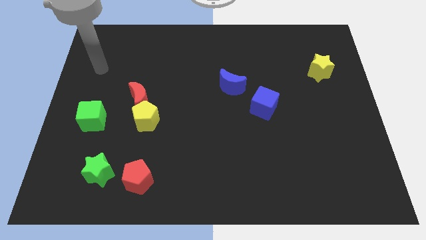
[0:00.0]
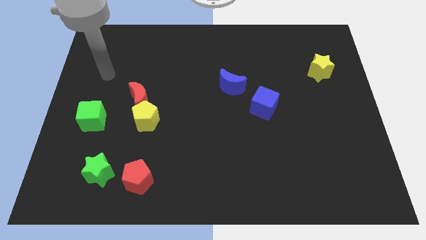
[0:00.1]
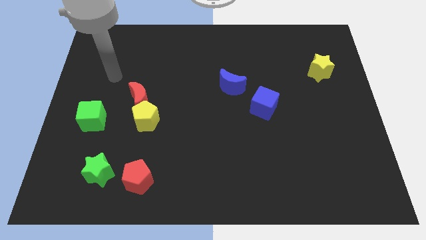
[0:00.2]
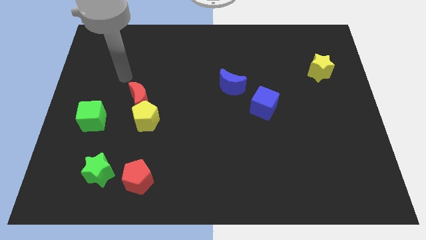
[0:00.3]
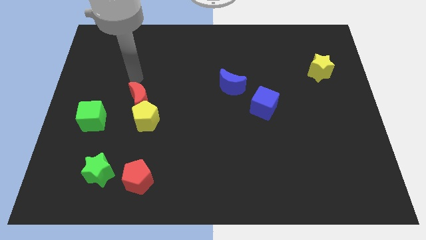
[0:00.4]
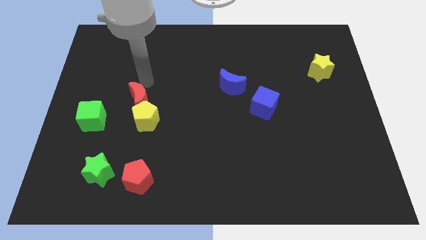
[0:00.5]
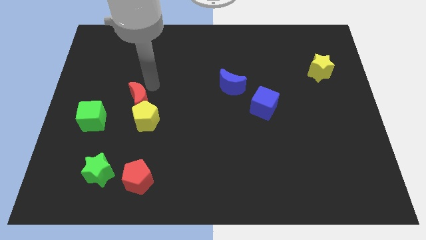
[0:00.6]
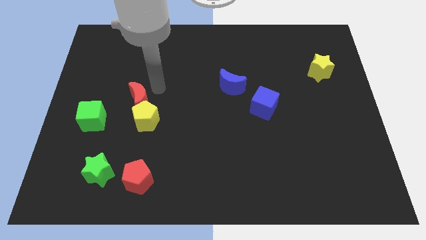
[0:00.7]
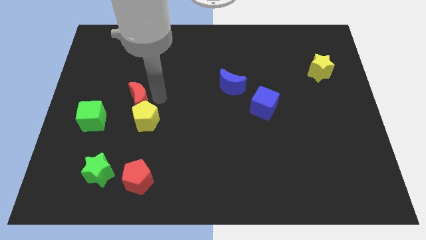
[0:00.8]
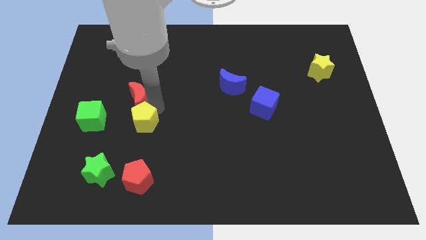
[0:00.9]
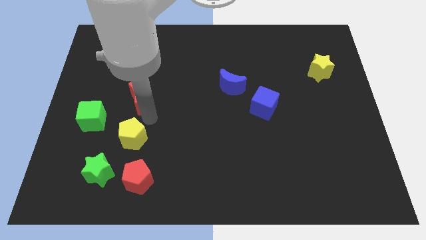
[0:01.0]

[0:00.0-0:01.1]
move the red moon away from the yellow pentagon

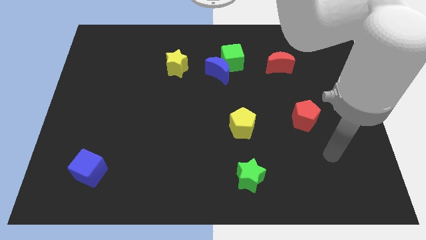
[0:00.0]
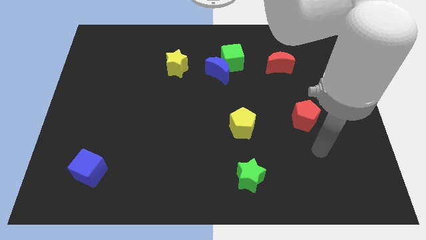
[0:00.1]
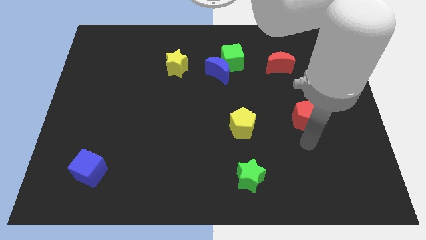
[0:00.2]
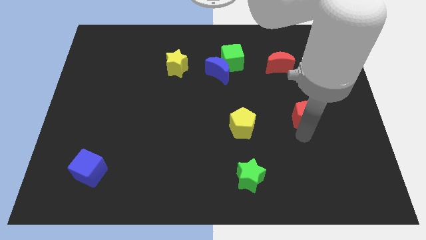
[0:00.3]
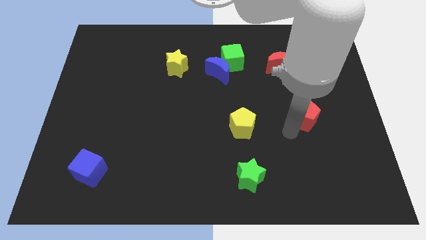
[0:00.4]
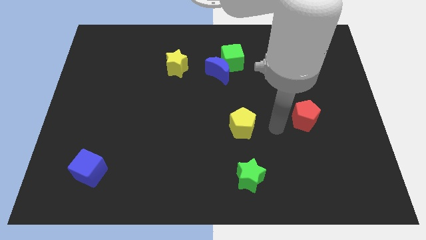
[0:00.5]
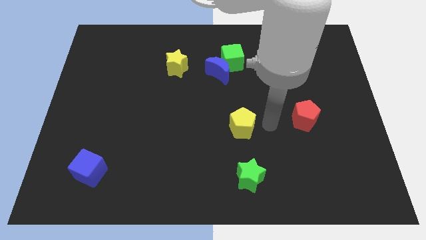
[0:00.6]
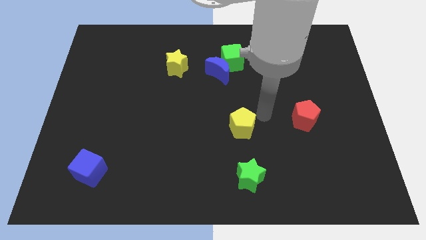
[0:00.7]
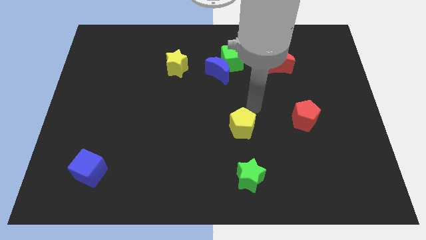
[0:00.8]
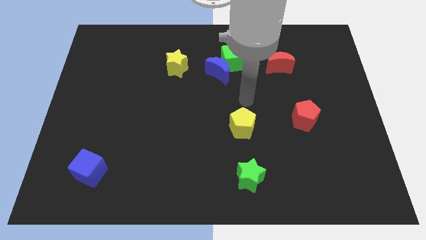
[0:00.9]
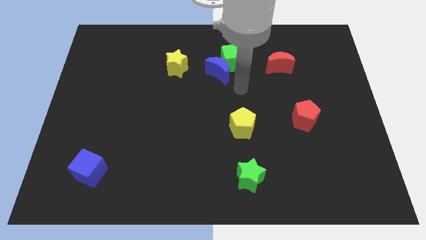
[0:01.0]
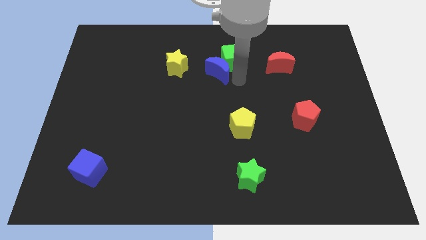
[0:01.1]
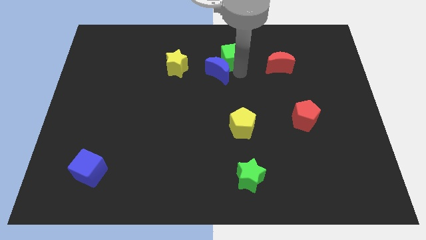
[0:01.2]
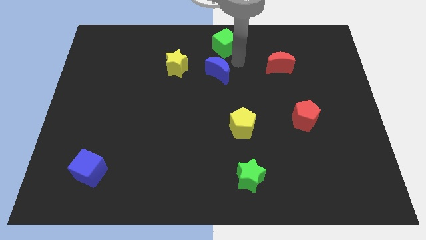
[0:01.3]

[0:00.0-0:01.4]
pull the blue moon apart from the green cube

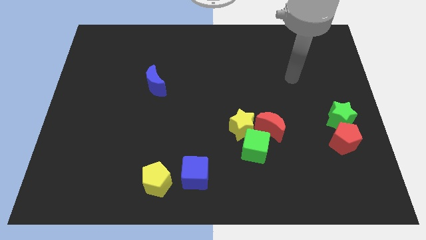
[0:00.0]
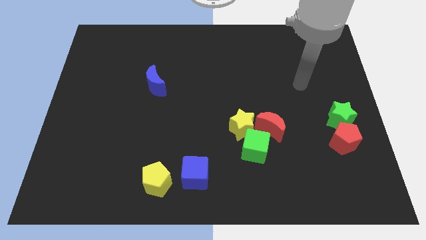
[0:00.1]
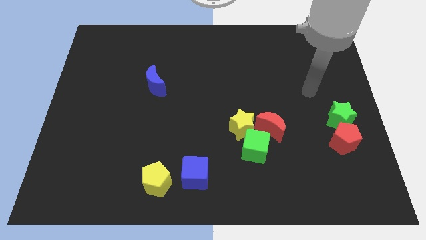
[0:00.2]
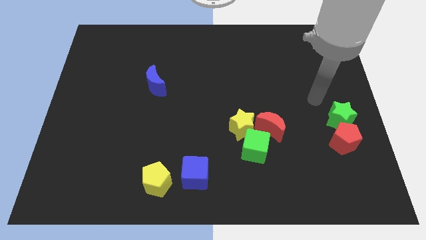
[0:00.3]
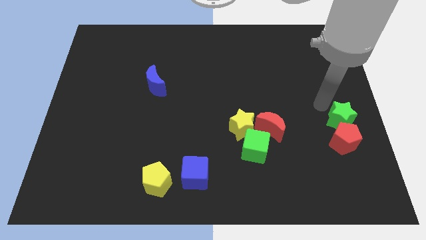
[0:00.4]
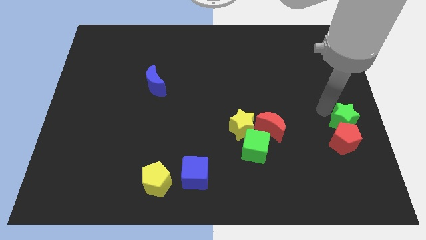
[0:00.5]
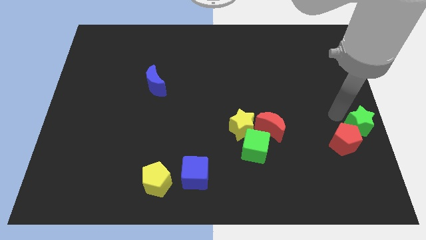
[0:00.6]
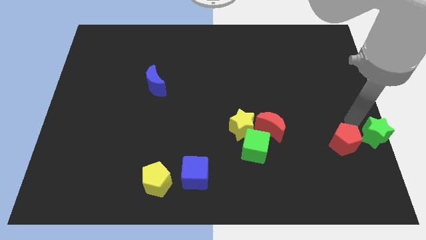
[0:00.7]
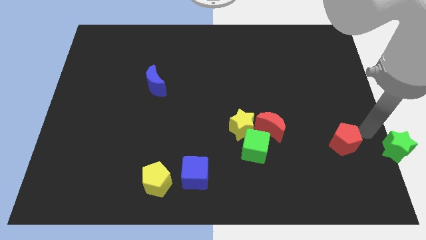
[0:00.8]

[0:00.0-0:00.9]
separate the red pentagon from the green star

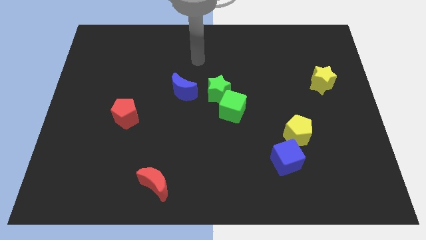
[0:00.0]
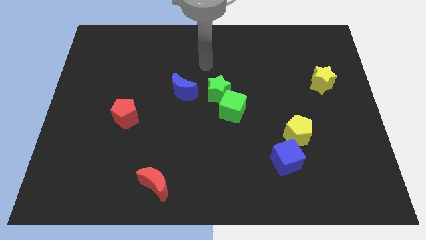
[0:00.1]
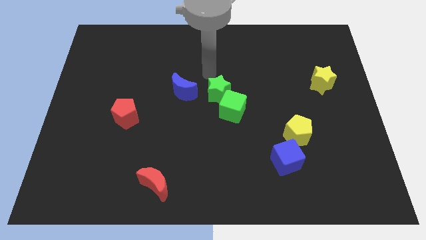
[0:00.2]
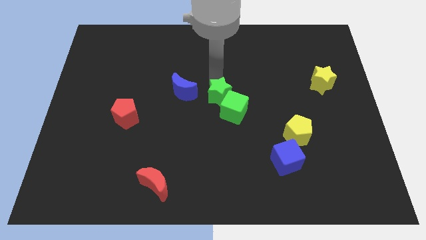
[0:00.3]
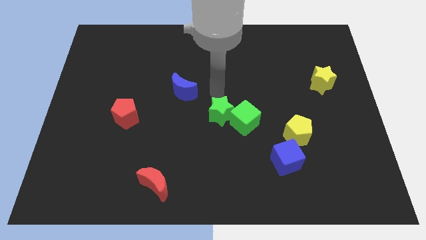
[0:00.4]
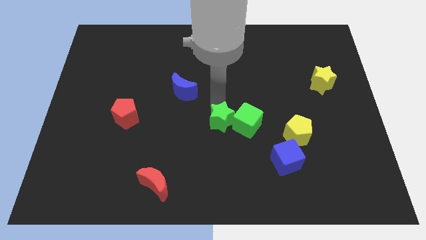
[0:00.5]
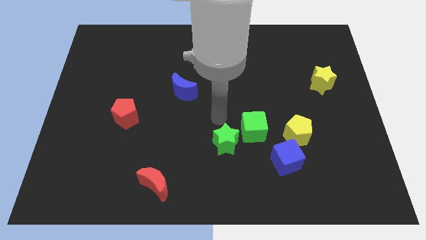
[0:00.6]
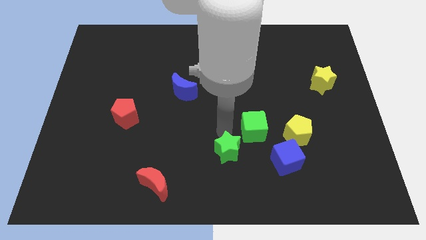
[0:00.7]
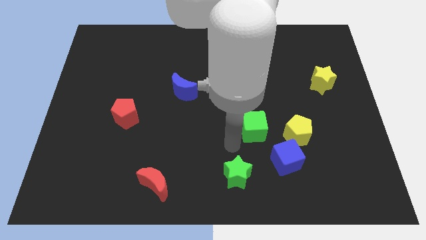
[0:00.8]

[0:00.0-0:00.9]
separate the green cube from the green star

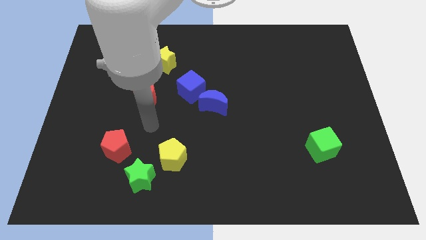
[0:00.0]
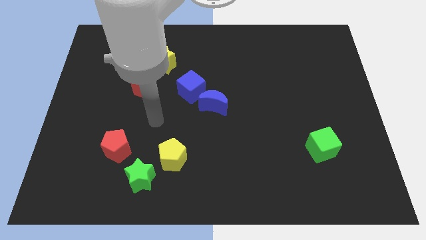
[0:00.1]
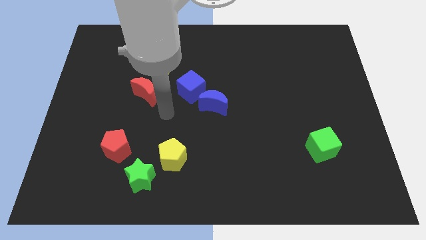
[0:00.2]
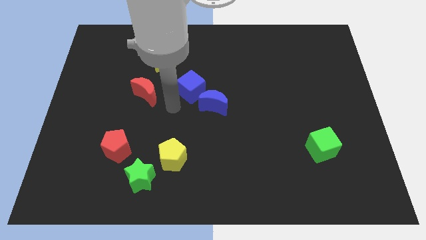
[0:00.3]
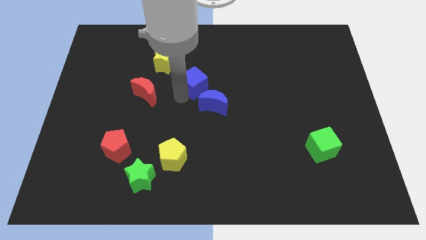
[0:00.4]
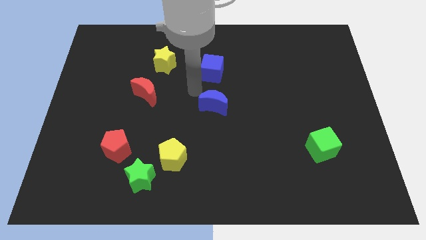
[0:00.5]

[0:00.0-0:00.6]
separate the blue moon from the blue cube

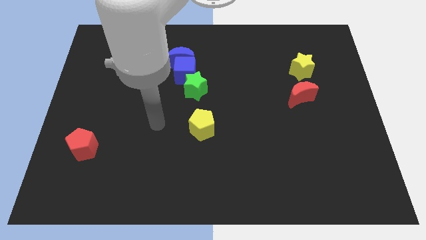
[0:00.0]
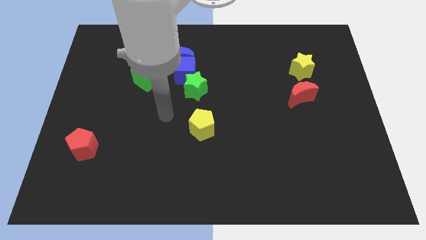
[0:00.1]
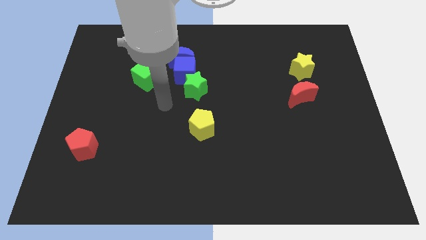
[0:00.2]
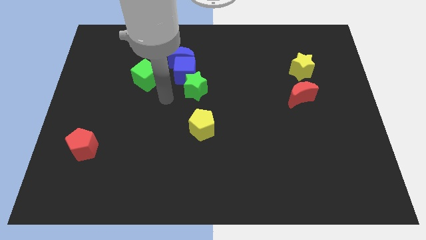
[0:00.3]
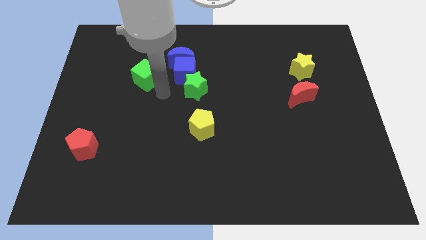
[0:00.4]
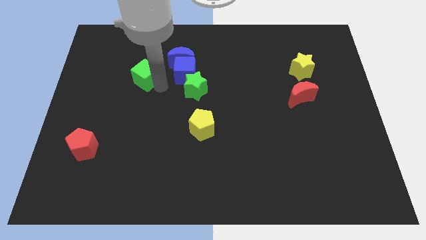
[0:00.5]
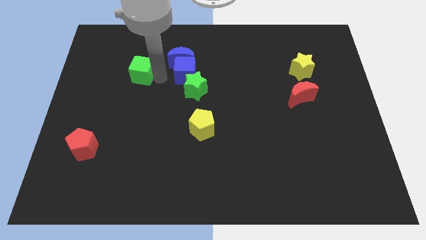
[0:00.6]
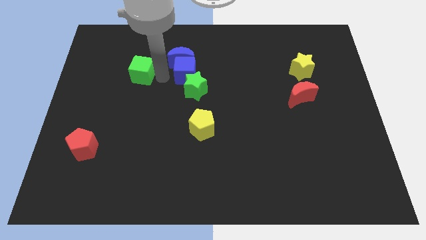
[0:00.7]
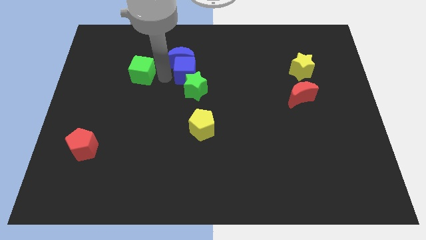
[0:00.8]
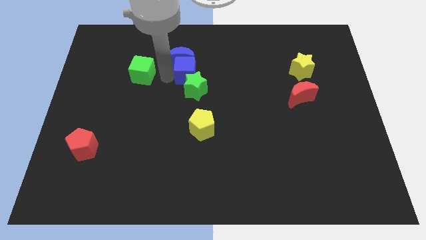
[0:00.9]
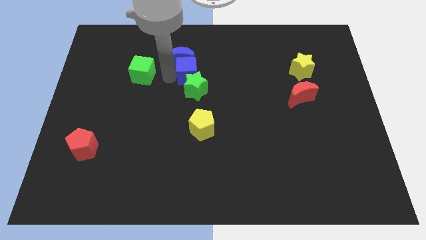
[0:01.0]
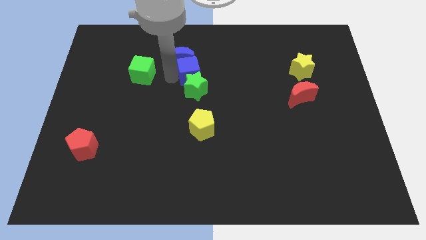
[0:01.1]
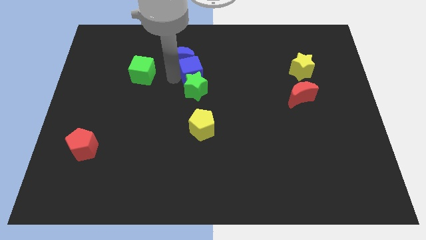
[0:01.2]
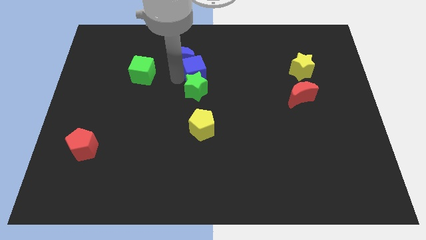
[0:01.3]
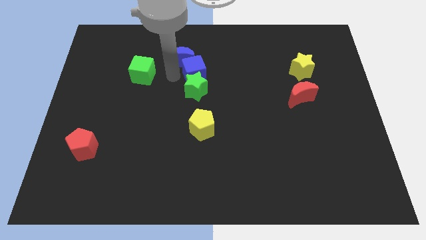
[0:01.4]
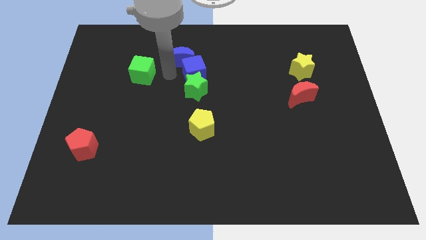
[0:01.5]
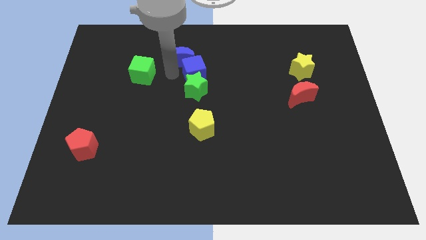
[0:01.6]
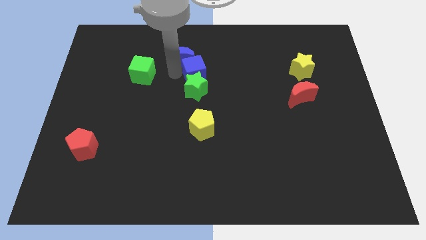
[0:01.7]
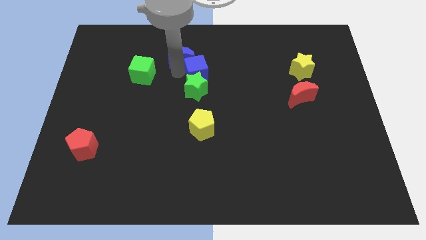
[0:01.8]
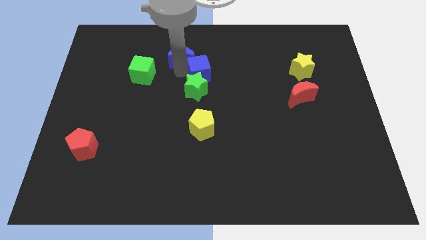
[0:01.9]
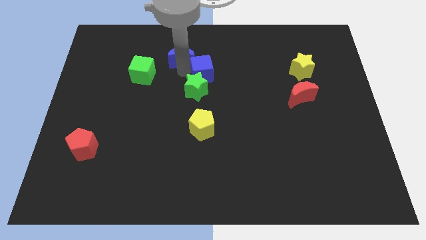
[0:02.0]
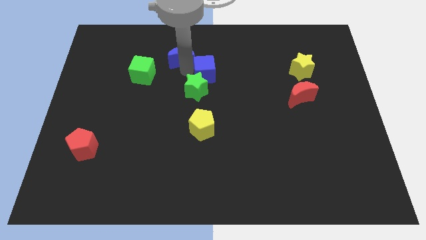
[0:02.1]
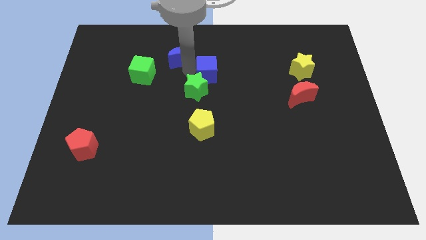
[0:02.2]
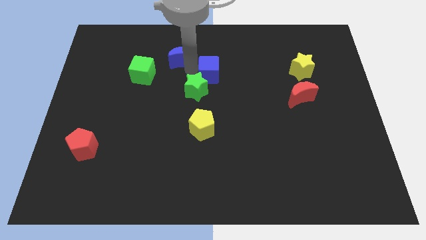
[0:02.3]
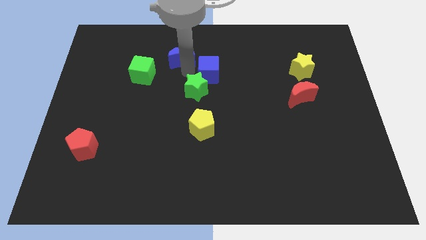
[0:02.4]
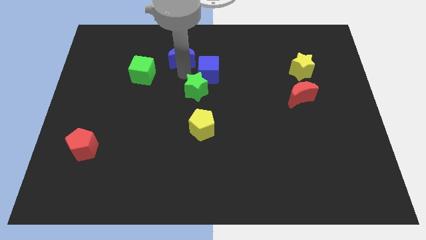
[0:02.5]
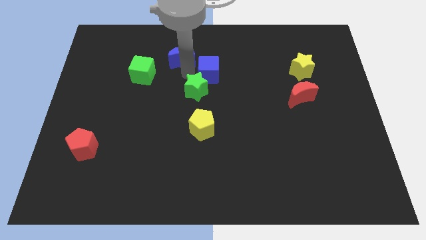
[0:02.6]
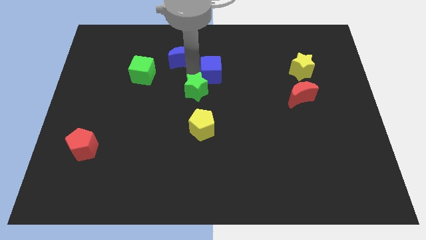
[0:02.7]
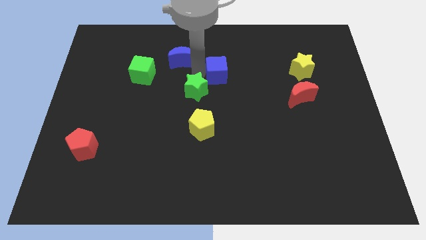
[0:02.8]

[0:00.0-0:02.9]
move the blue cube away from the group

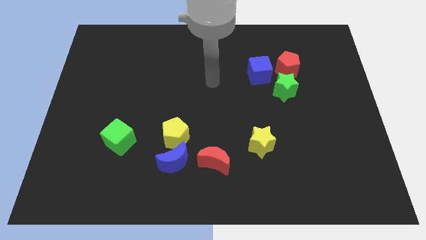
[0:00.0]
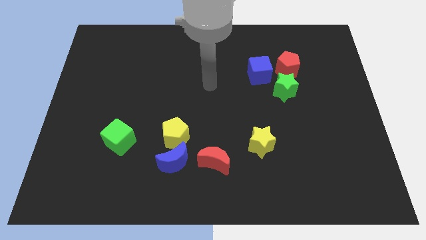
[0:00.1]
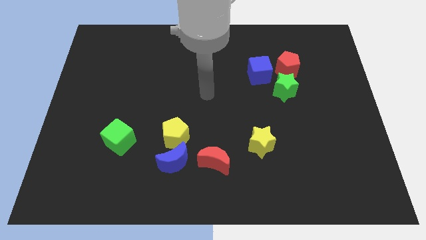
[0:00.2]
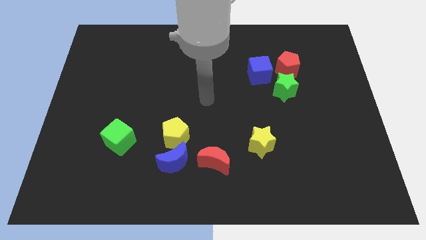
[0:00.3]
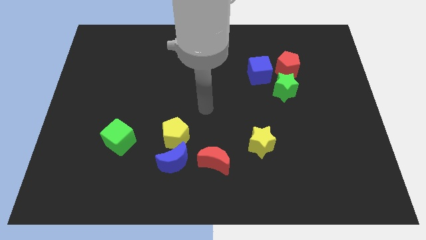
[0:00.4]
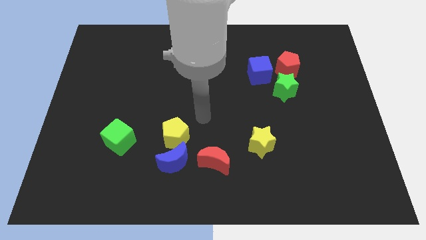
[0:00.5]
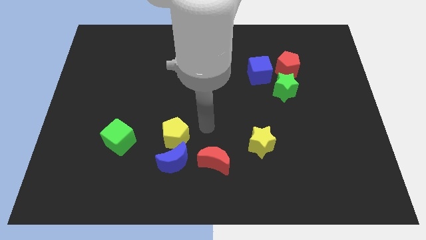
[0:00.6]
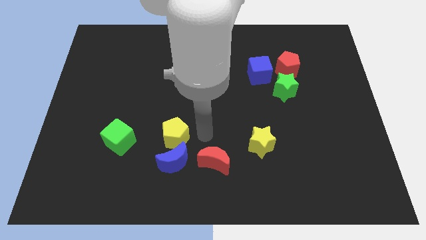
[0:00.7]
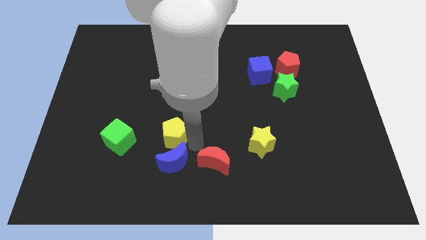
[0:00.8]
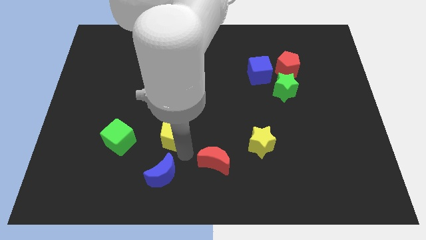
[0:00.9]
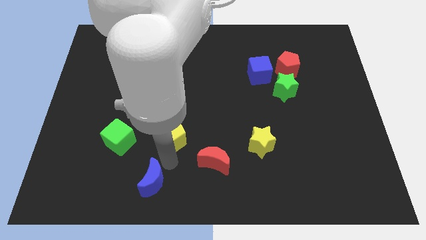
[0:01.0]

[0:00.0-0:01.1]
move the yellow pentagon away from the blue moon

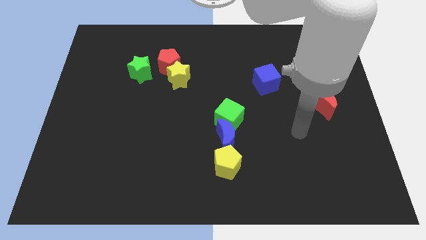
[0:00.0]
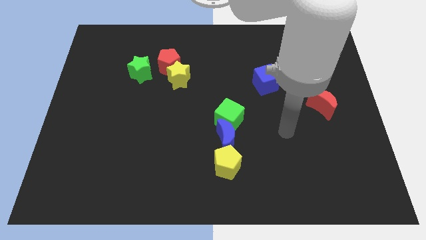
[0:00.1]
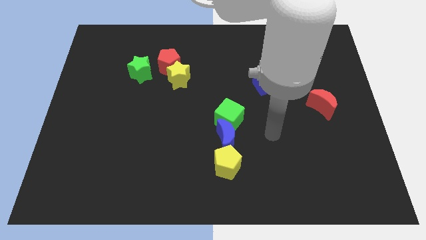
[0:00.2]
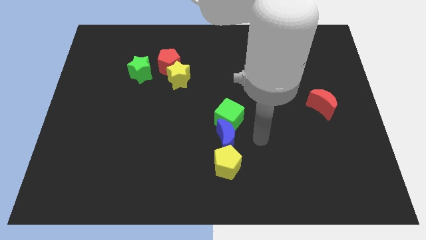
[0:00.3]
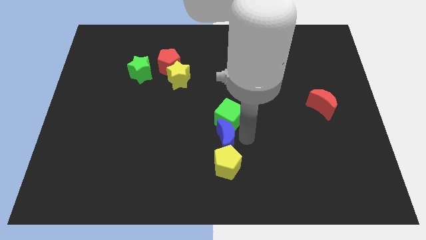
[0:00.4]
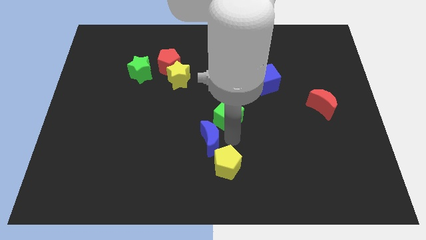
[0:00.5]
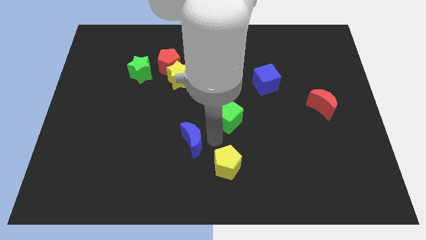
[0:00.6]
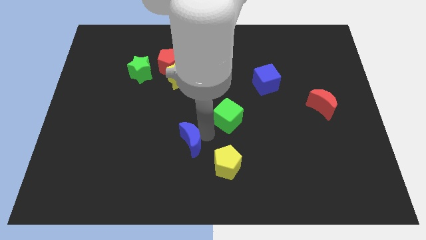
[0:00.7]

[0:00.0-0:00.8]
pull the green cube apart from the blue moon
